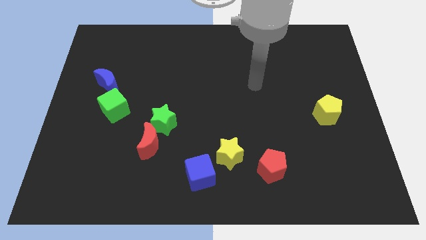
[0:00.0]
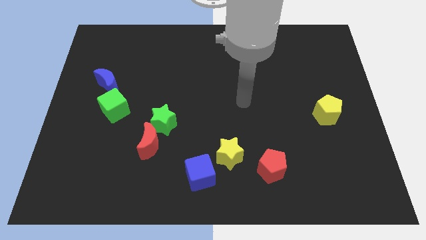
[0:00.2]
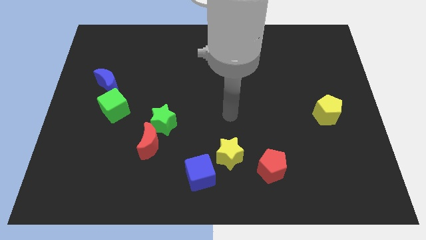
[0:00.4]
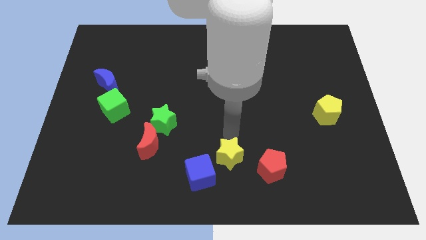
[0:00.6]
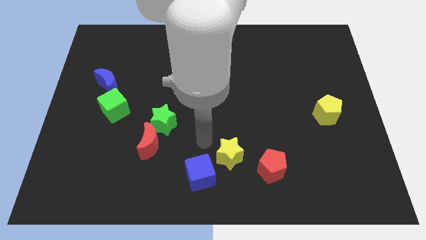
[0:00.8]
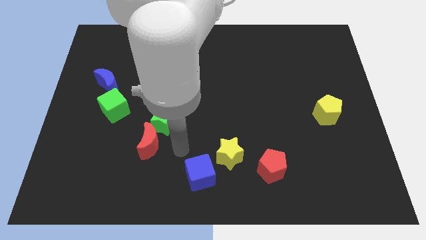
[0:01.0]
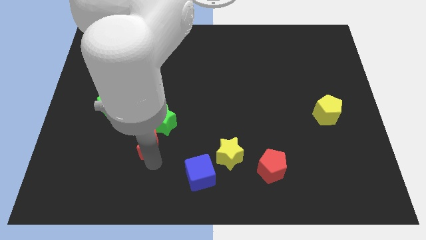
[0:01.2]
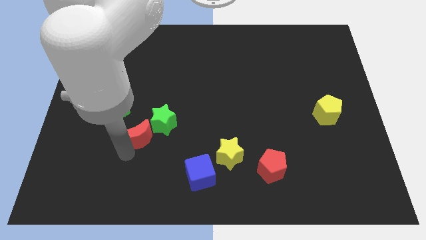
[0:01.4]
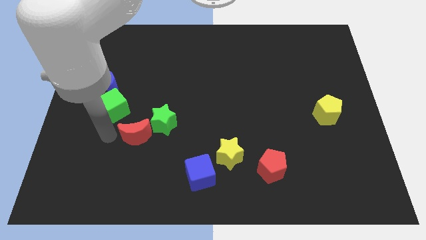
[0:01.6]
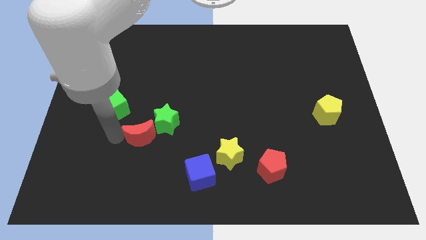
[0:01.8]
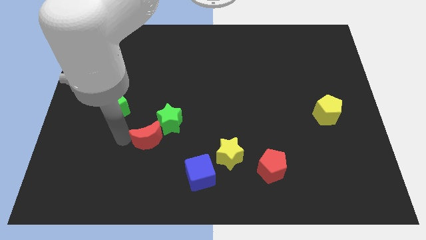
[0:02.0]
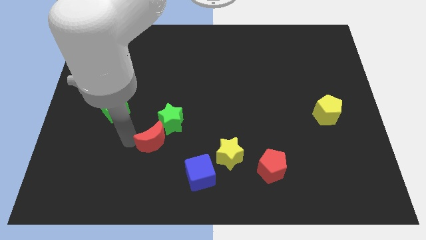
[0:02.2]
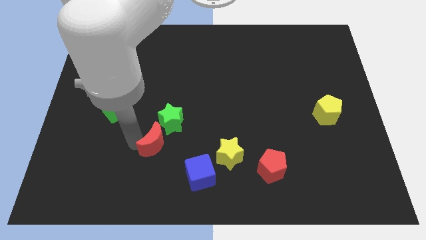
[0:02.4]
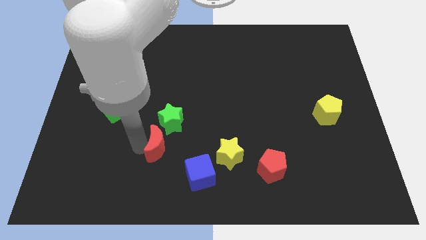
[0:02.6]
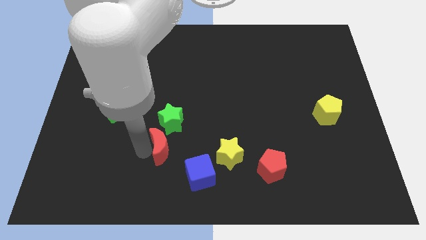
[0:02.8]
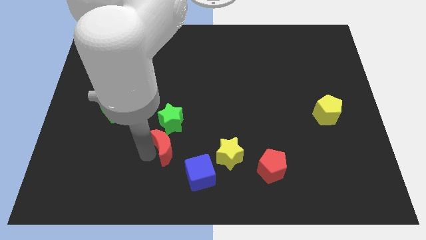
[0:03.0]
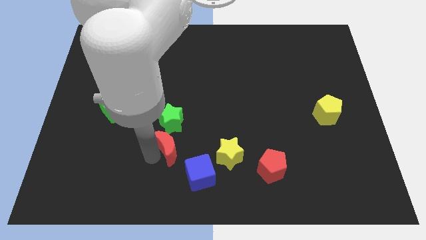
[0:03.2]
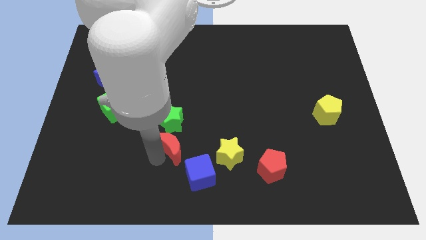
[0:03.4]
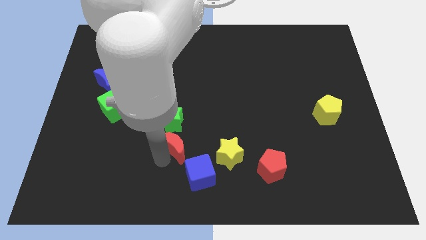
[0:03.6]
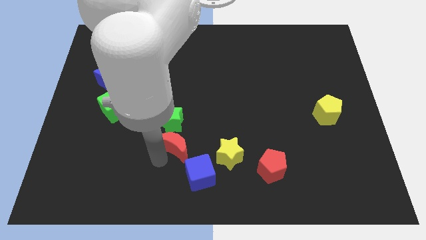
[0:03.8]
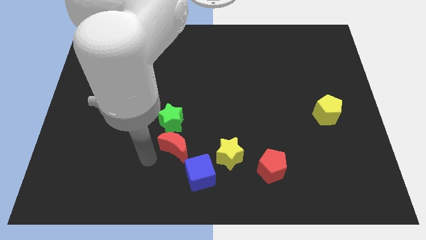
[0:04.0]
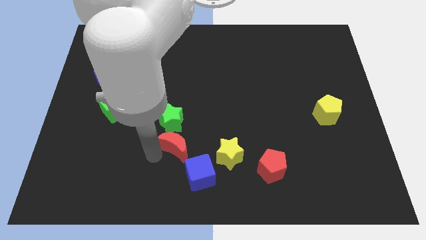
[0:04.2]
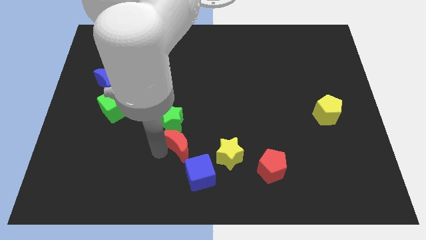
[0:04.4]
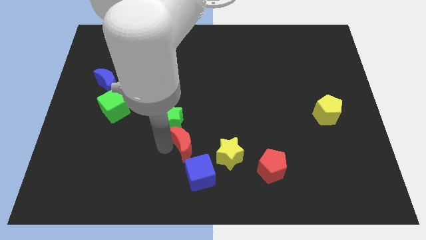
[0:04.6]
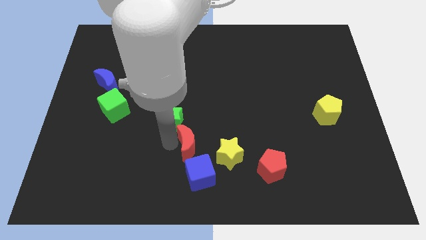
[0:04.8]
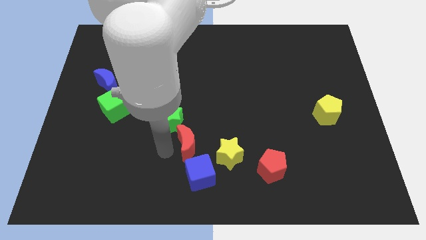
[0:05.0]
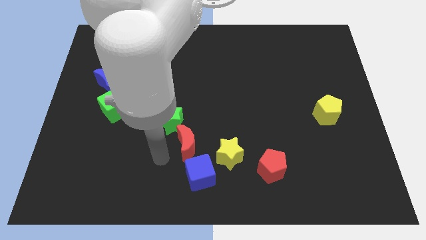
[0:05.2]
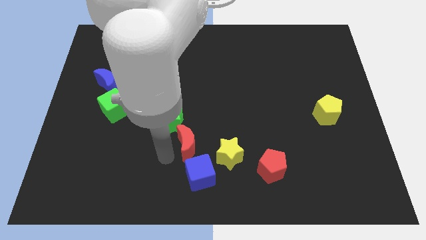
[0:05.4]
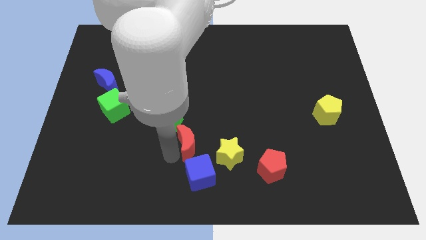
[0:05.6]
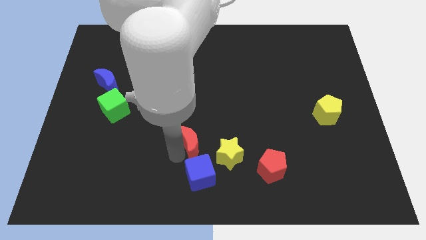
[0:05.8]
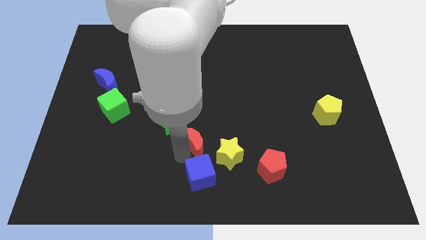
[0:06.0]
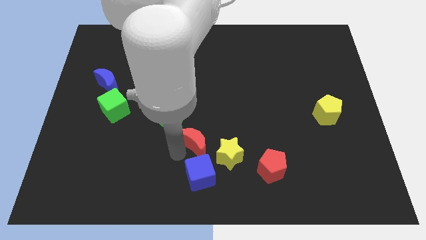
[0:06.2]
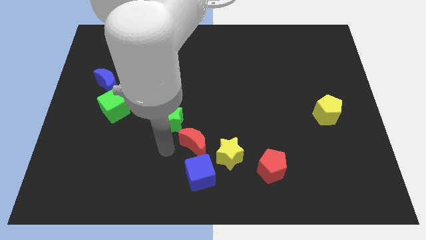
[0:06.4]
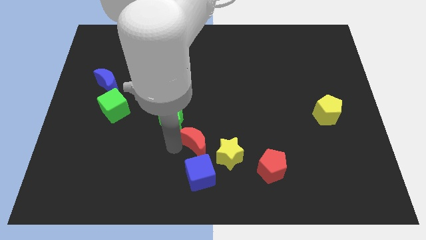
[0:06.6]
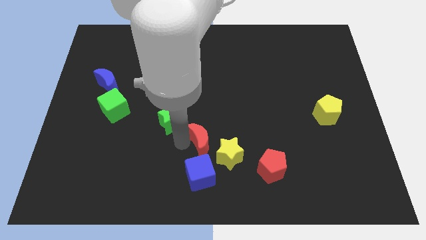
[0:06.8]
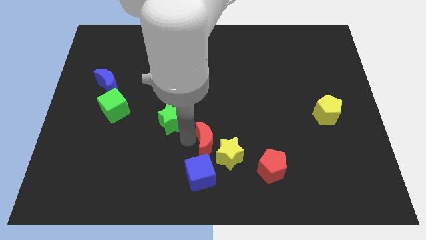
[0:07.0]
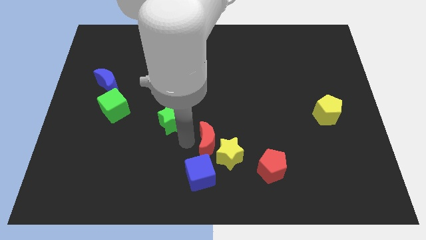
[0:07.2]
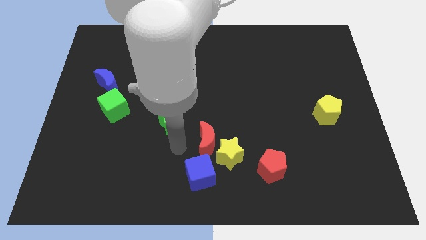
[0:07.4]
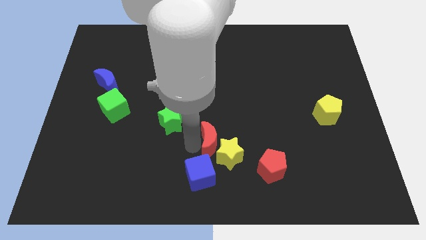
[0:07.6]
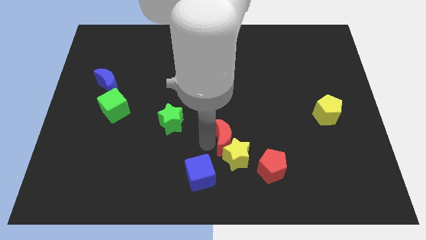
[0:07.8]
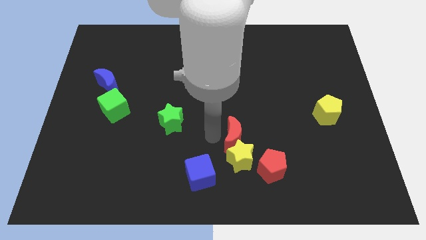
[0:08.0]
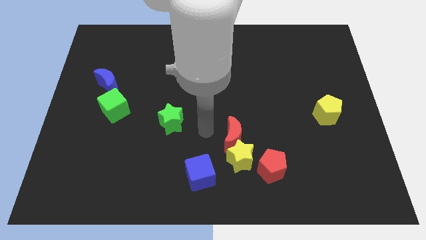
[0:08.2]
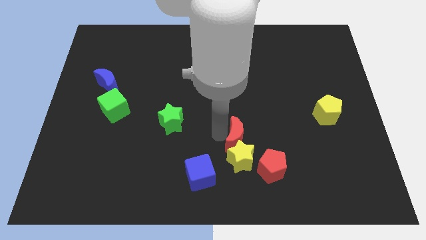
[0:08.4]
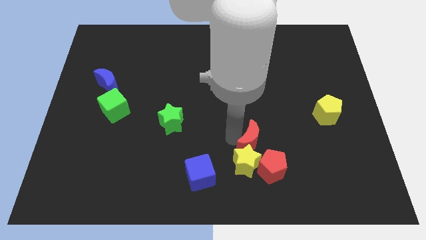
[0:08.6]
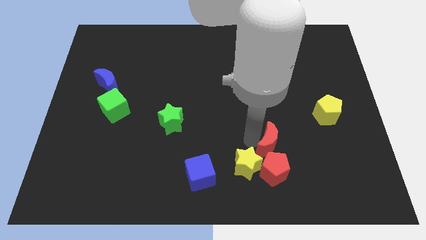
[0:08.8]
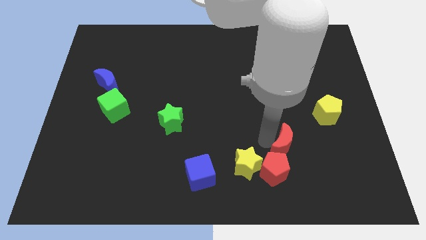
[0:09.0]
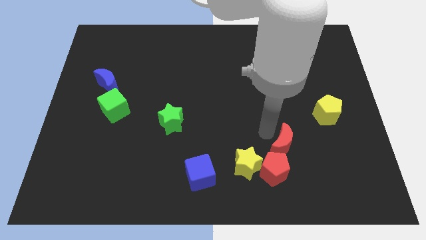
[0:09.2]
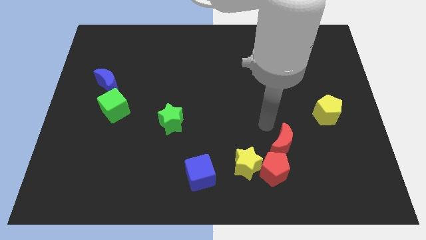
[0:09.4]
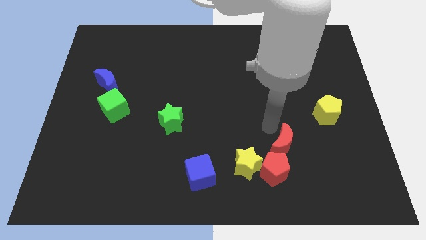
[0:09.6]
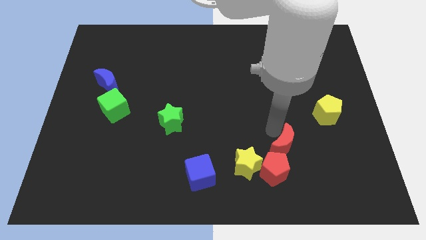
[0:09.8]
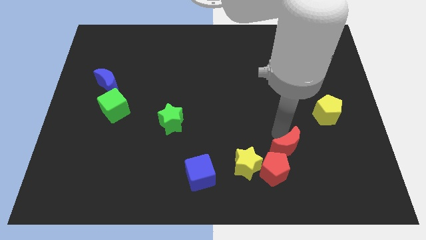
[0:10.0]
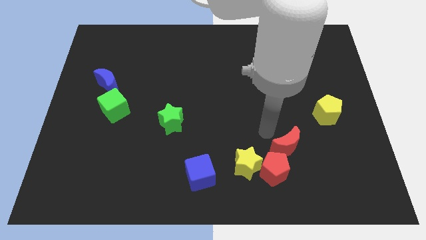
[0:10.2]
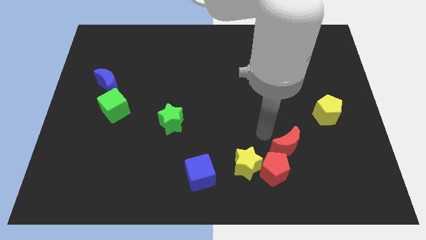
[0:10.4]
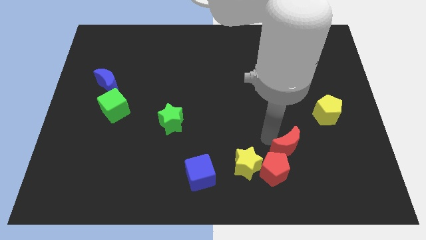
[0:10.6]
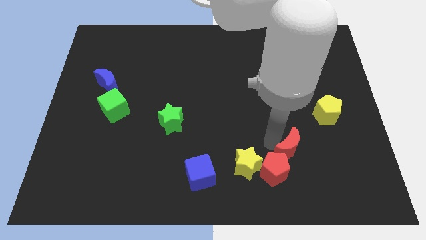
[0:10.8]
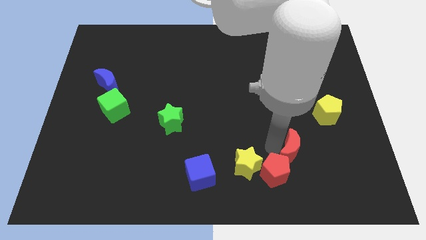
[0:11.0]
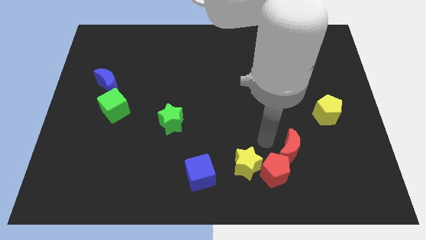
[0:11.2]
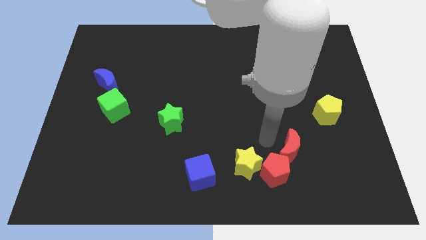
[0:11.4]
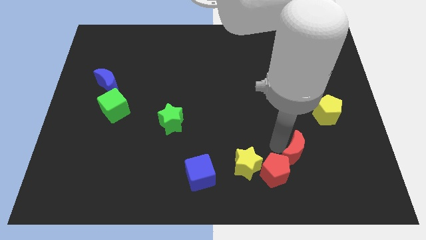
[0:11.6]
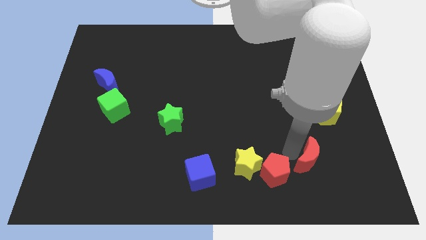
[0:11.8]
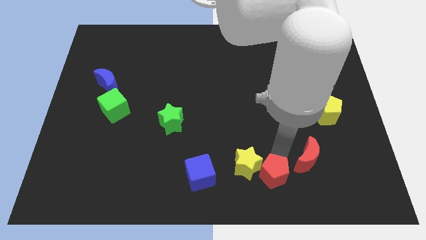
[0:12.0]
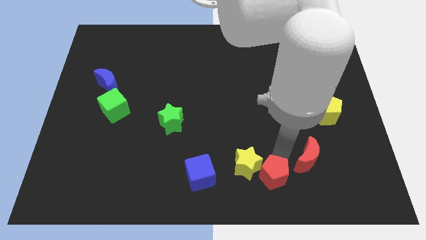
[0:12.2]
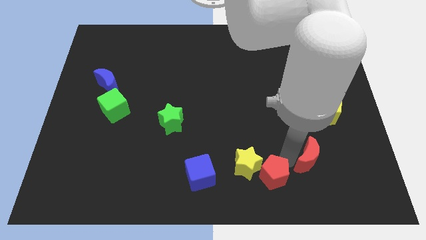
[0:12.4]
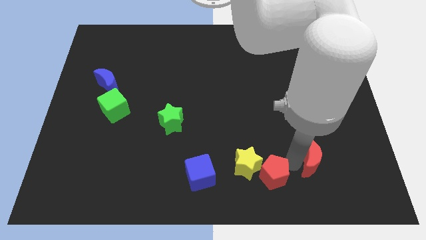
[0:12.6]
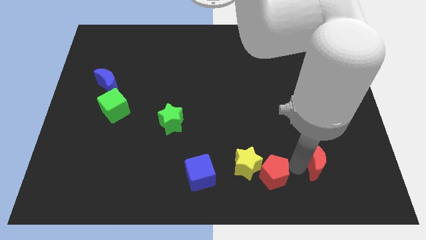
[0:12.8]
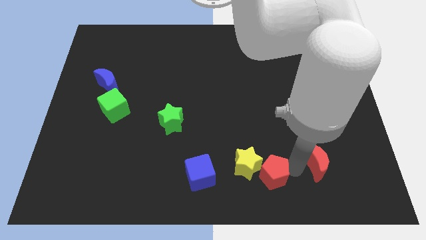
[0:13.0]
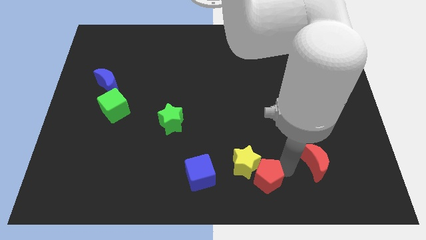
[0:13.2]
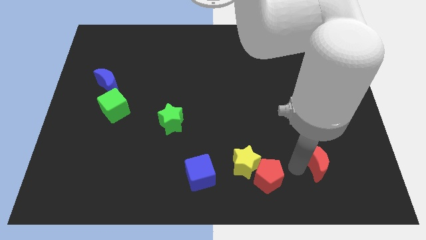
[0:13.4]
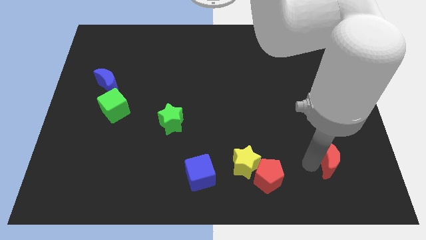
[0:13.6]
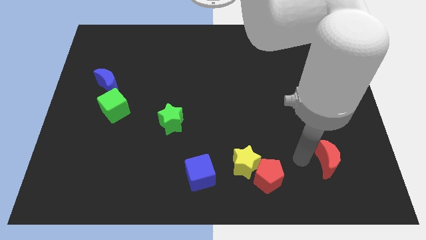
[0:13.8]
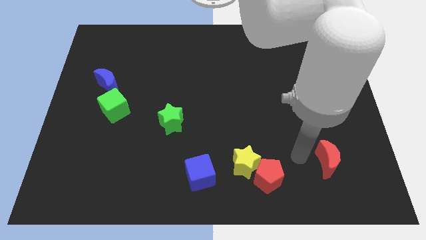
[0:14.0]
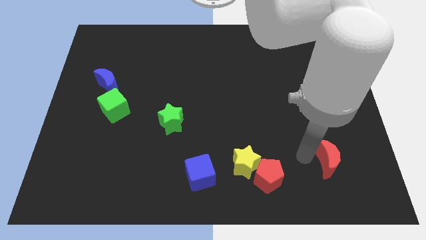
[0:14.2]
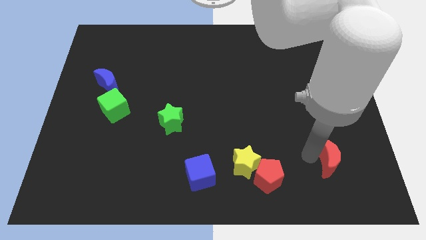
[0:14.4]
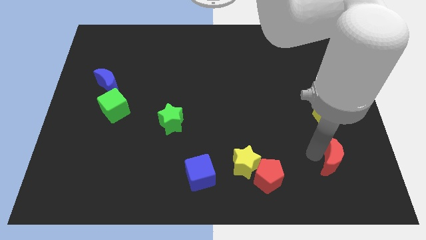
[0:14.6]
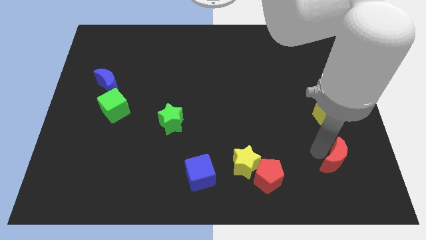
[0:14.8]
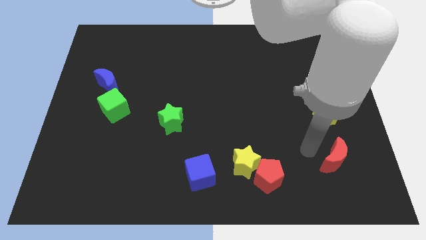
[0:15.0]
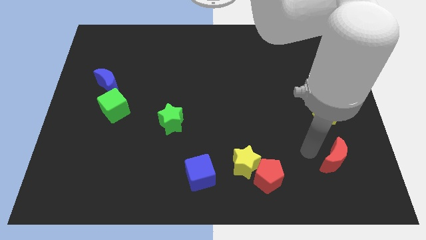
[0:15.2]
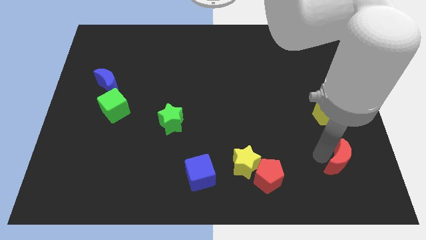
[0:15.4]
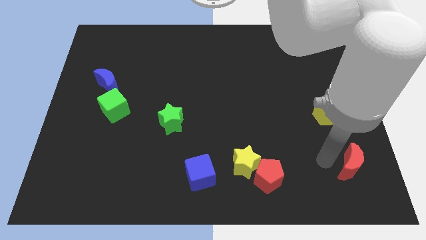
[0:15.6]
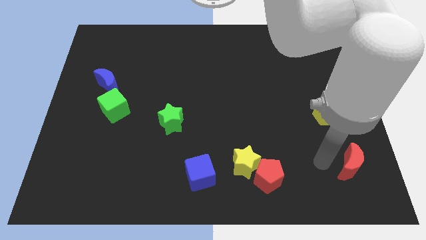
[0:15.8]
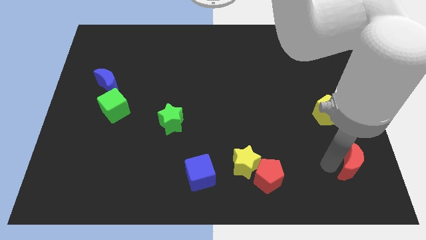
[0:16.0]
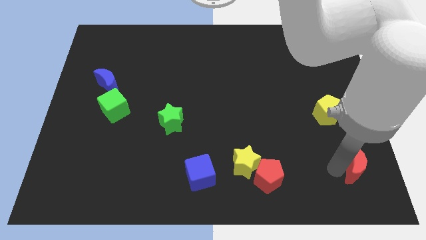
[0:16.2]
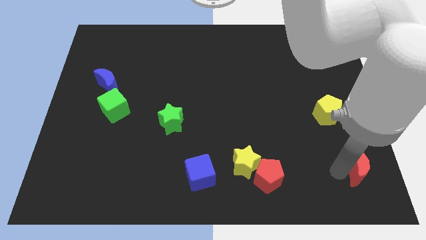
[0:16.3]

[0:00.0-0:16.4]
push the red moon to the bottom right
